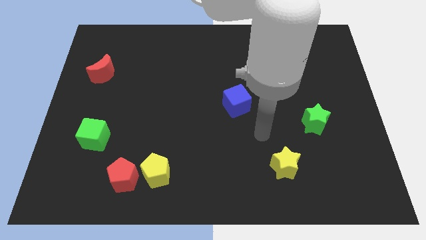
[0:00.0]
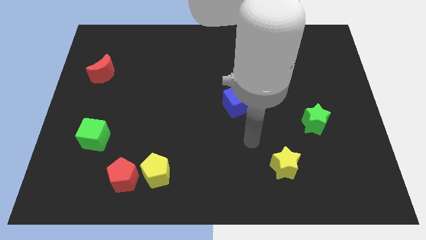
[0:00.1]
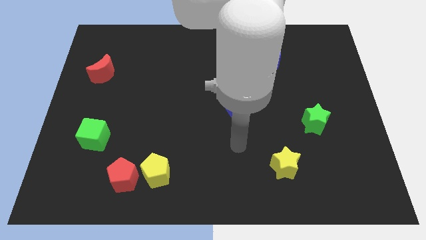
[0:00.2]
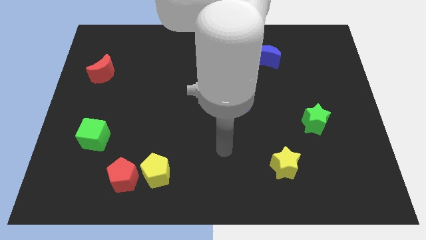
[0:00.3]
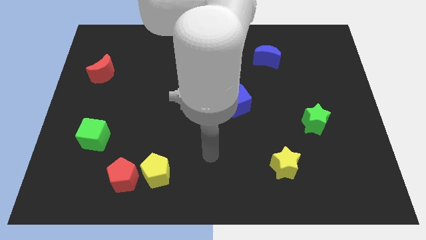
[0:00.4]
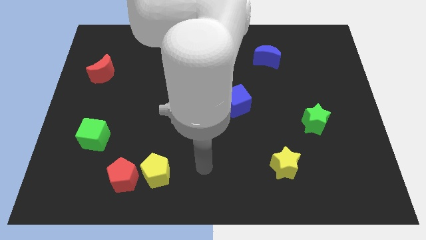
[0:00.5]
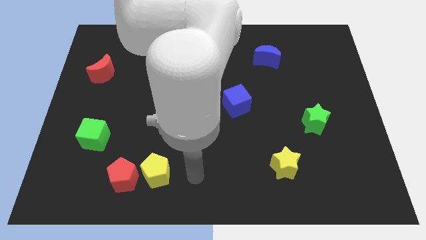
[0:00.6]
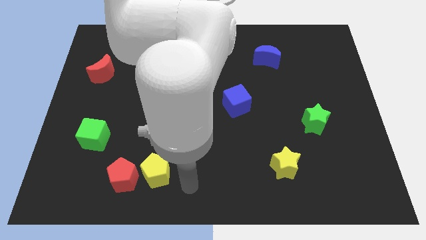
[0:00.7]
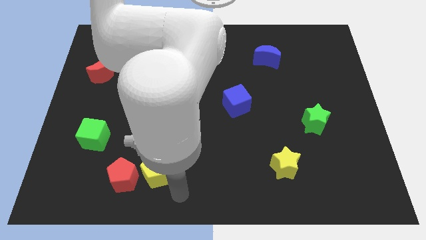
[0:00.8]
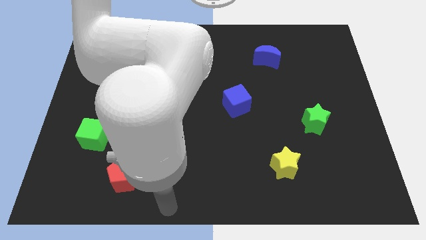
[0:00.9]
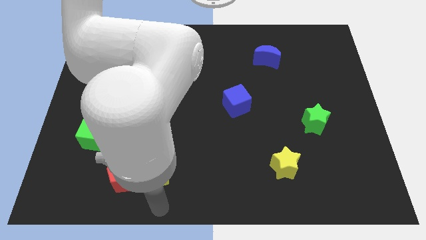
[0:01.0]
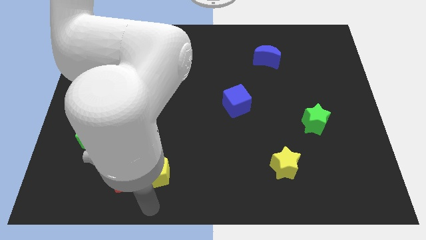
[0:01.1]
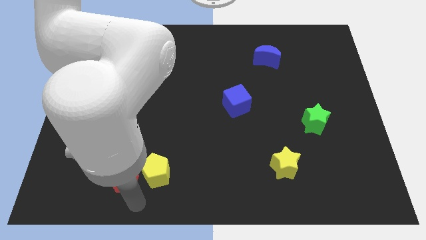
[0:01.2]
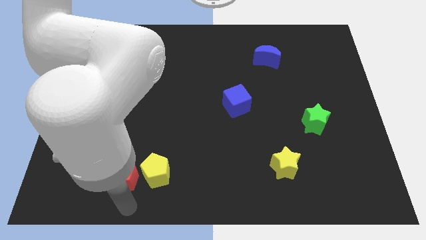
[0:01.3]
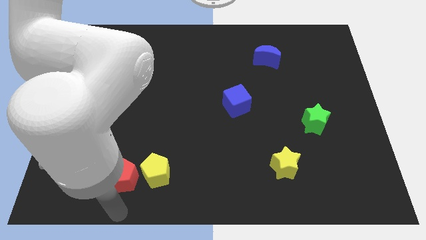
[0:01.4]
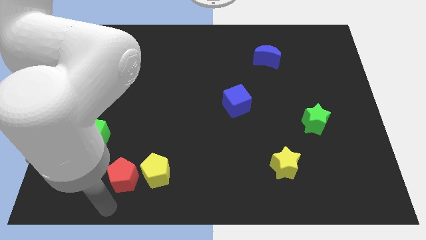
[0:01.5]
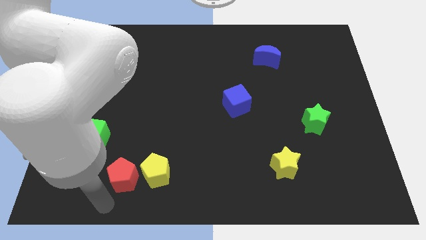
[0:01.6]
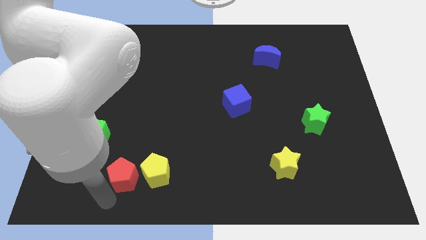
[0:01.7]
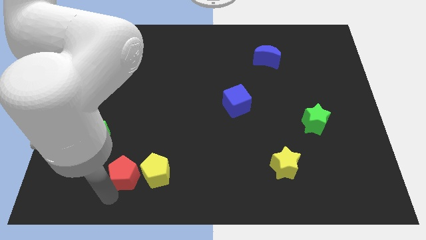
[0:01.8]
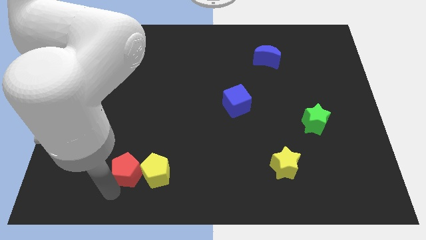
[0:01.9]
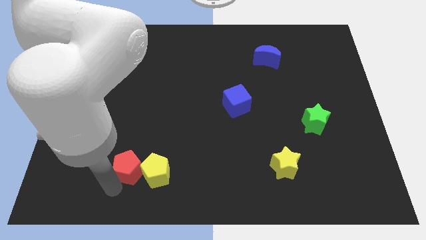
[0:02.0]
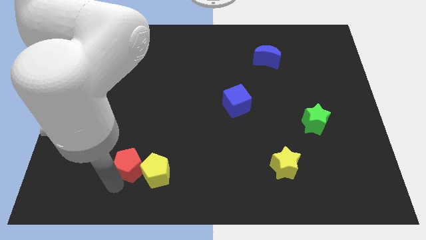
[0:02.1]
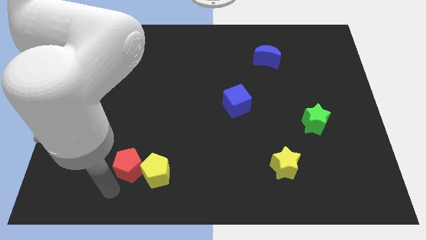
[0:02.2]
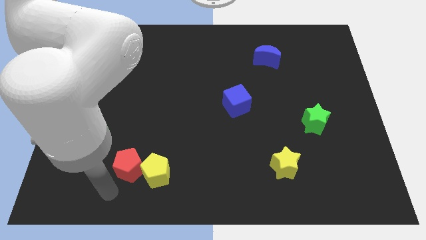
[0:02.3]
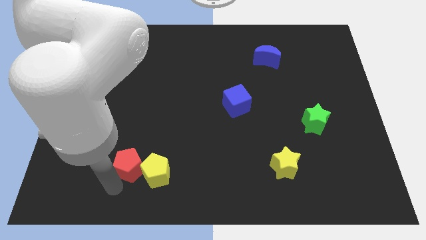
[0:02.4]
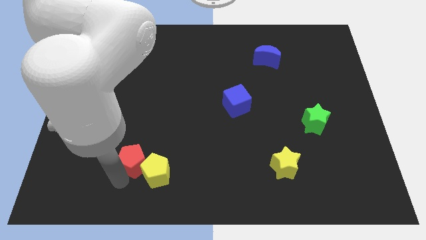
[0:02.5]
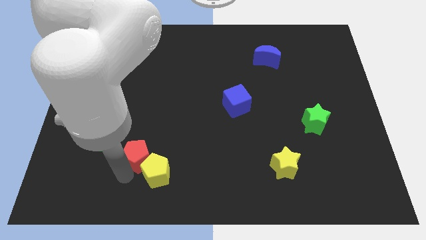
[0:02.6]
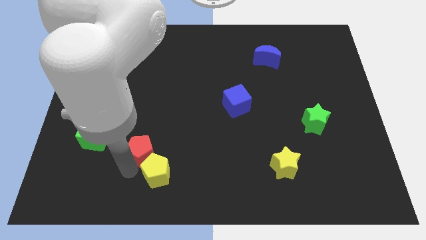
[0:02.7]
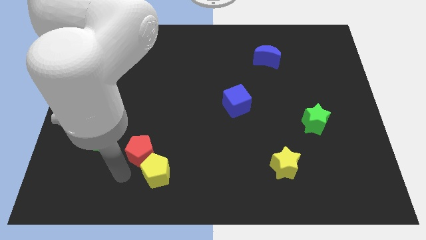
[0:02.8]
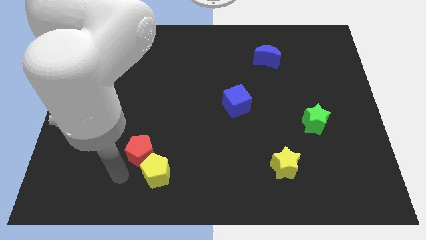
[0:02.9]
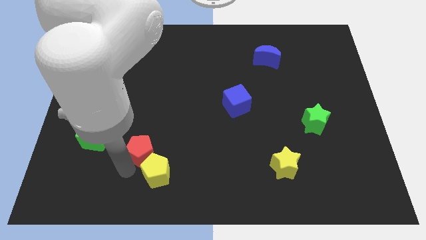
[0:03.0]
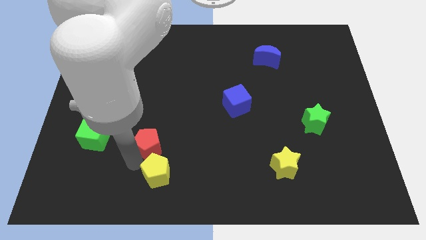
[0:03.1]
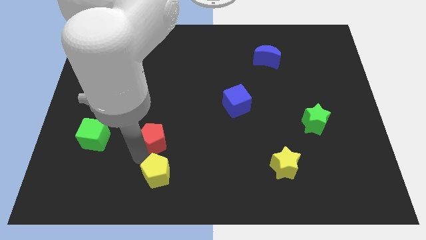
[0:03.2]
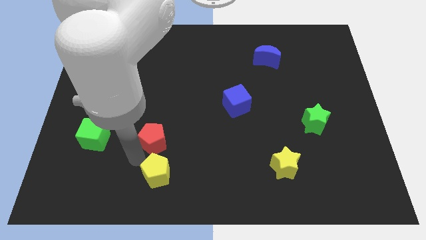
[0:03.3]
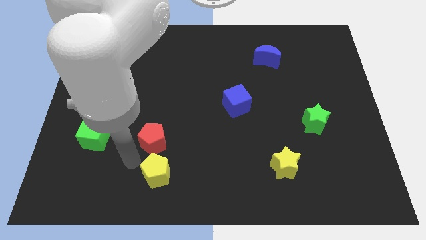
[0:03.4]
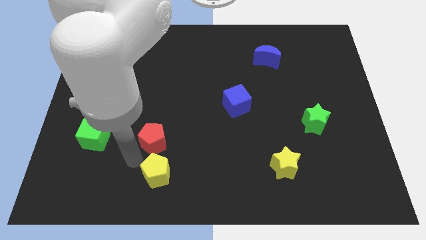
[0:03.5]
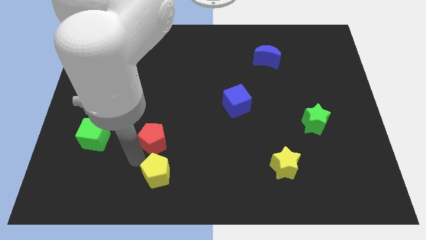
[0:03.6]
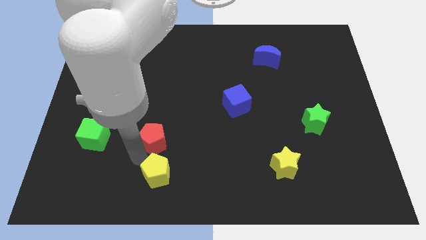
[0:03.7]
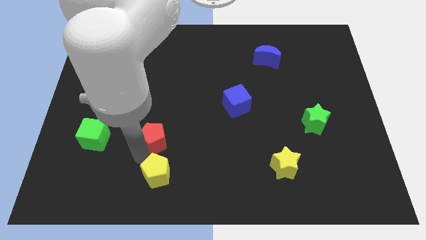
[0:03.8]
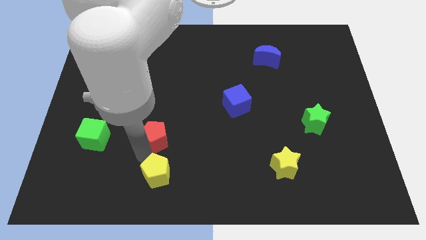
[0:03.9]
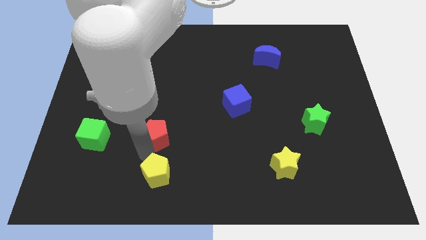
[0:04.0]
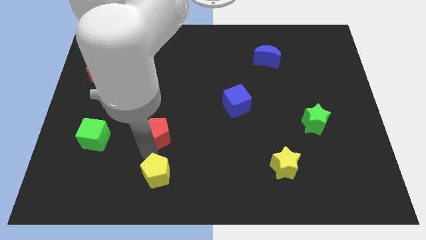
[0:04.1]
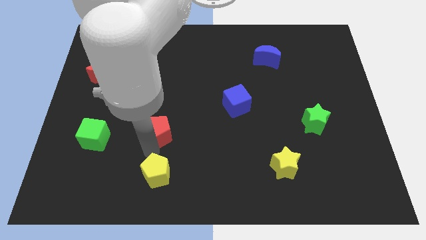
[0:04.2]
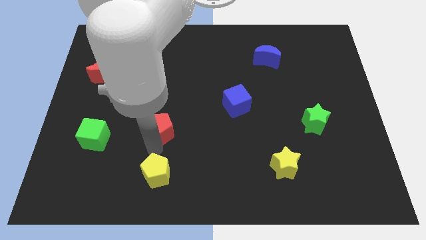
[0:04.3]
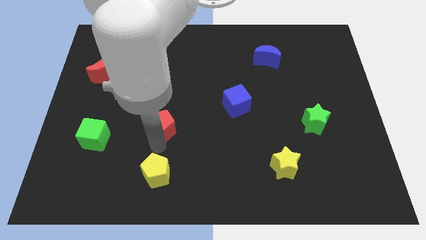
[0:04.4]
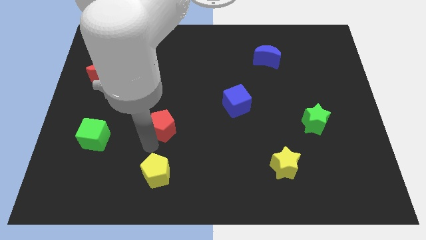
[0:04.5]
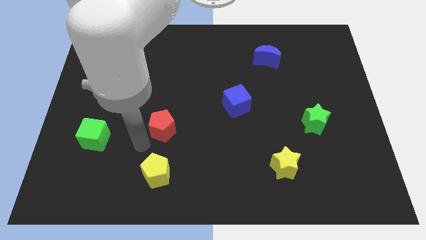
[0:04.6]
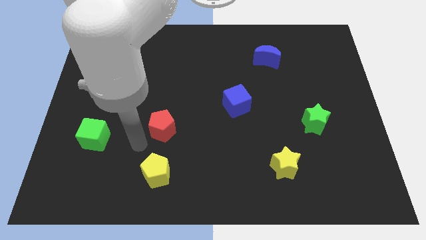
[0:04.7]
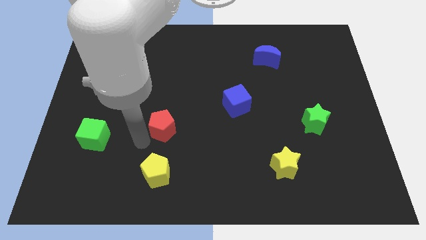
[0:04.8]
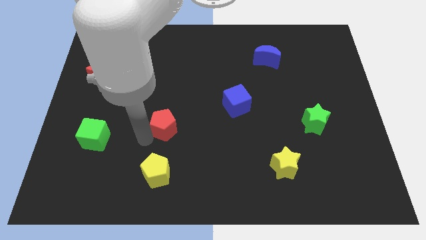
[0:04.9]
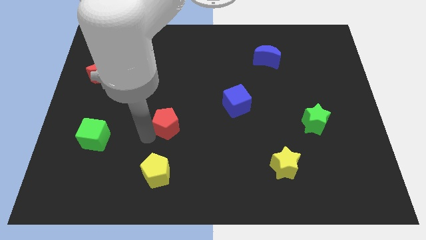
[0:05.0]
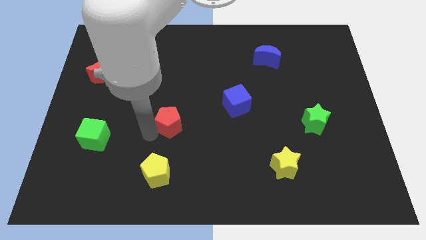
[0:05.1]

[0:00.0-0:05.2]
move the red pentagon to the center of the board

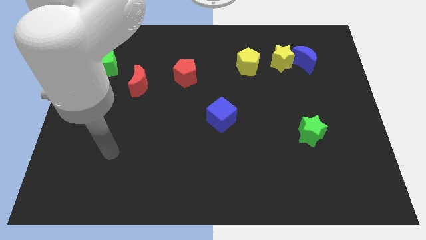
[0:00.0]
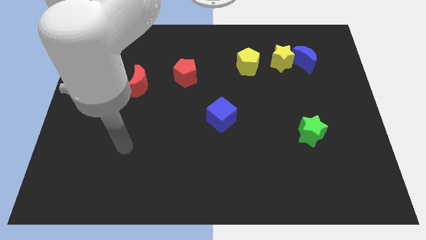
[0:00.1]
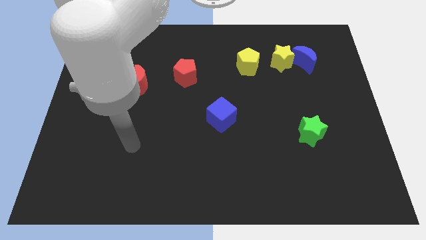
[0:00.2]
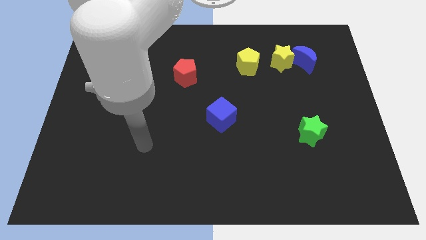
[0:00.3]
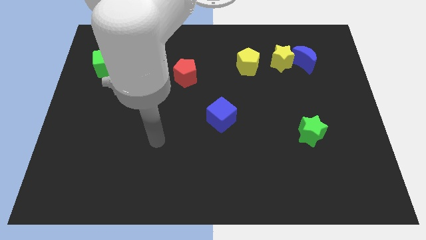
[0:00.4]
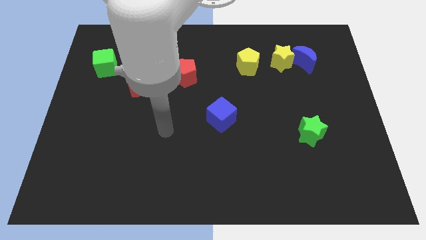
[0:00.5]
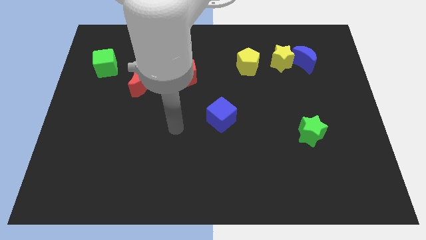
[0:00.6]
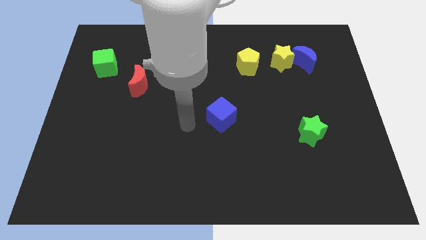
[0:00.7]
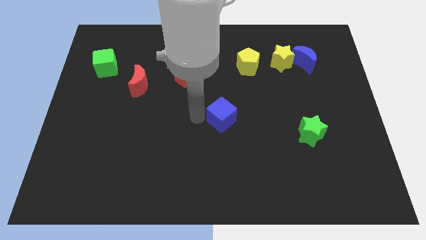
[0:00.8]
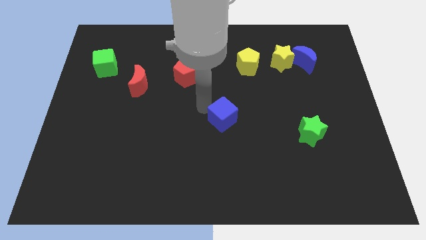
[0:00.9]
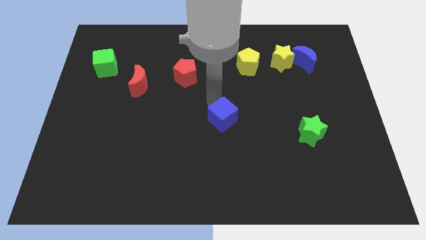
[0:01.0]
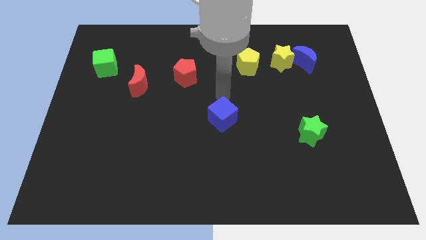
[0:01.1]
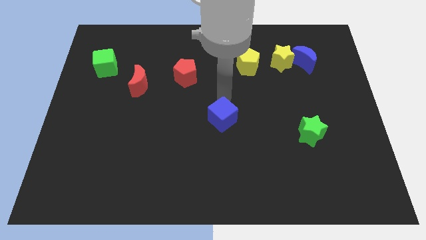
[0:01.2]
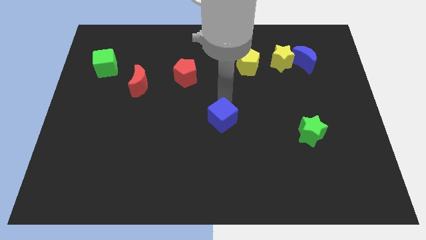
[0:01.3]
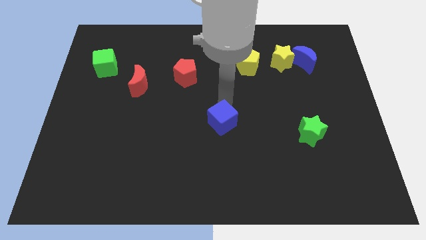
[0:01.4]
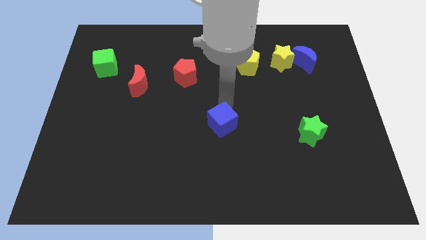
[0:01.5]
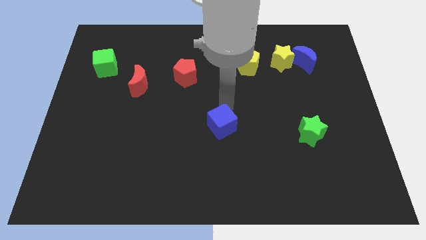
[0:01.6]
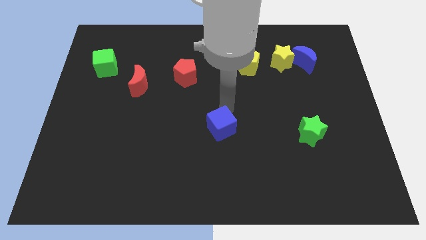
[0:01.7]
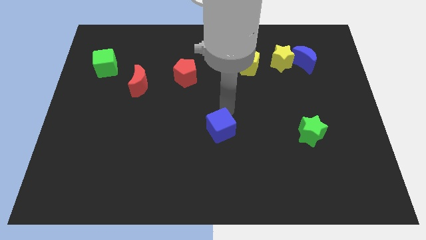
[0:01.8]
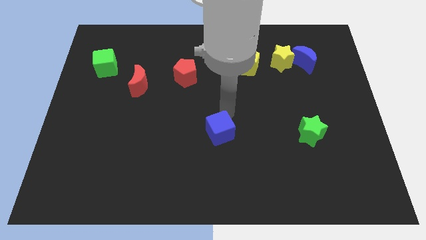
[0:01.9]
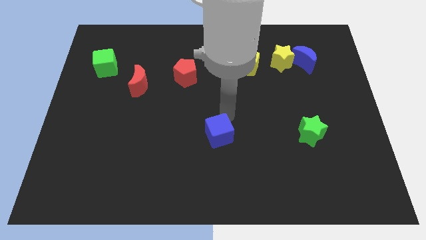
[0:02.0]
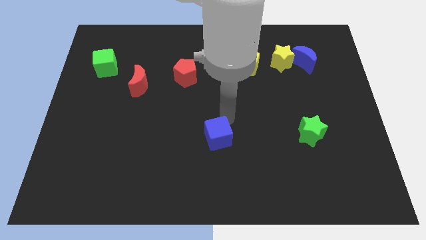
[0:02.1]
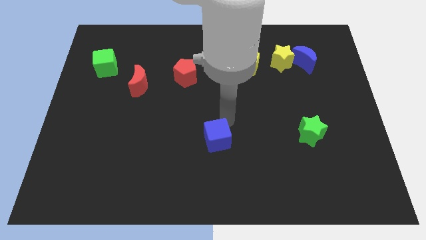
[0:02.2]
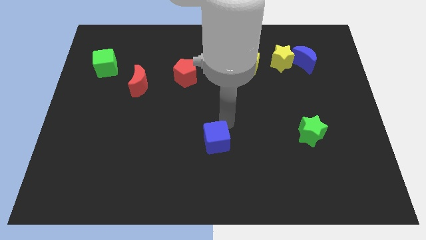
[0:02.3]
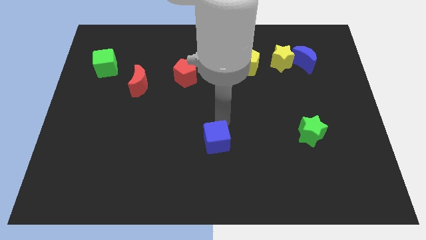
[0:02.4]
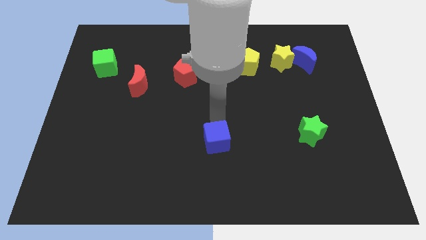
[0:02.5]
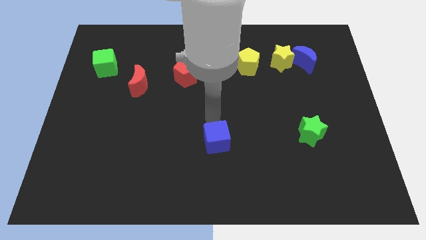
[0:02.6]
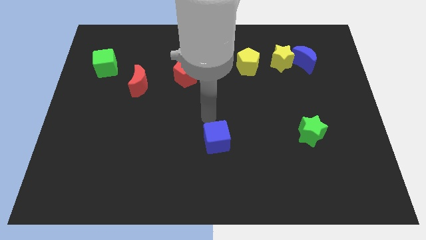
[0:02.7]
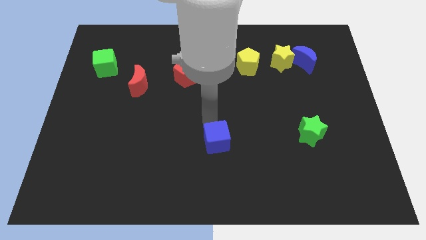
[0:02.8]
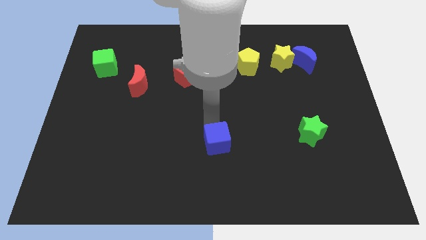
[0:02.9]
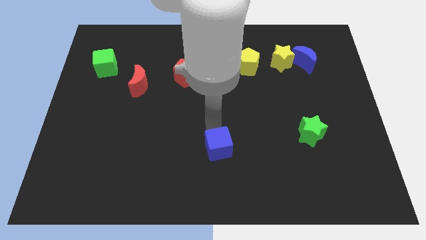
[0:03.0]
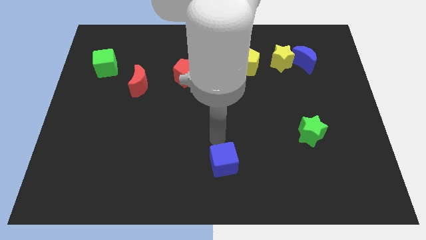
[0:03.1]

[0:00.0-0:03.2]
put the blue cube to the bottom side
